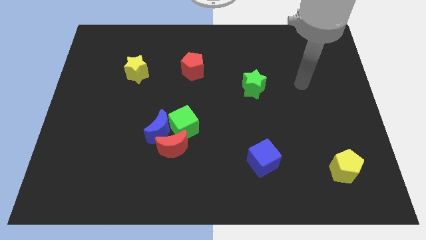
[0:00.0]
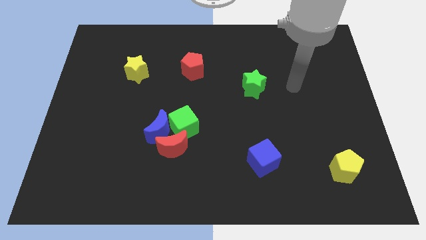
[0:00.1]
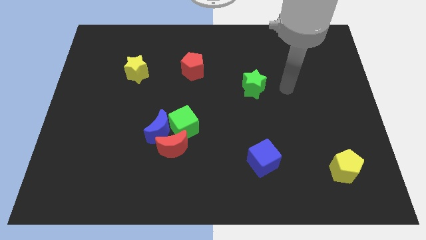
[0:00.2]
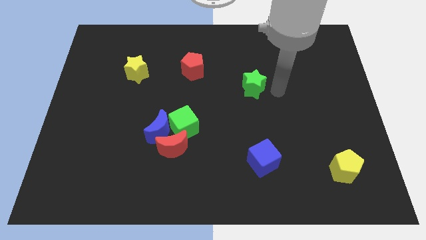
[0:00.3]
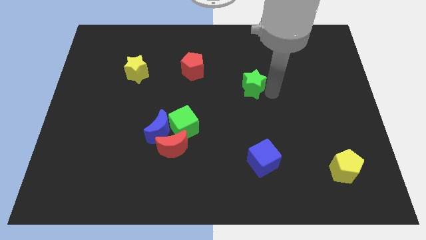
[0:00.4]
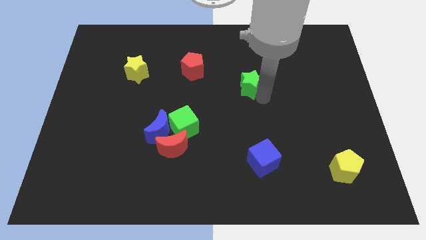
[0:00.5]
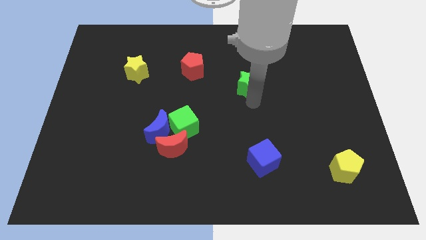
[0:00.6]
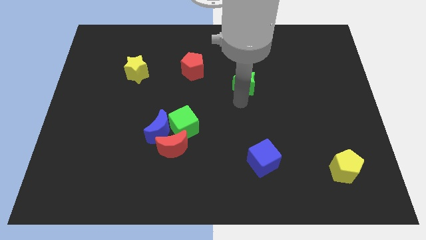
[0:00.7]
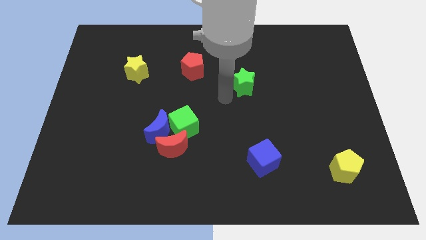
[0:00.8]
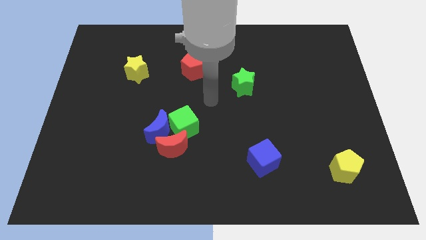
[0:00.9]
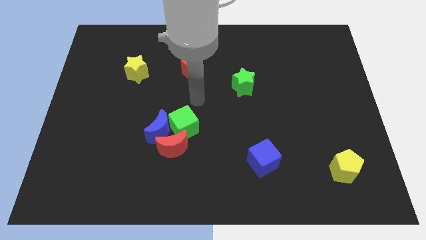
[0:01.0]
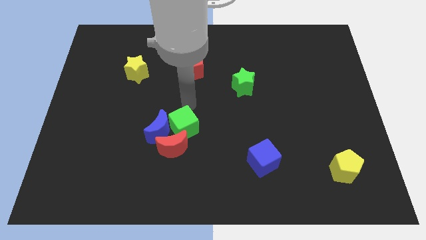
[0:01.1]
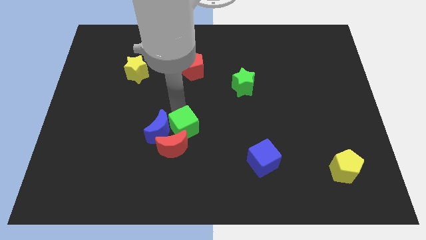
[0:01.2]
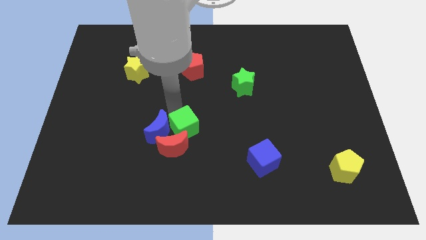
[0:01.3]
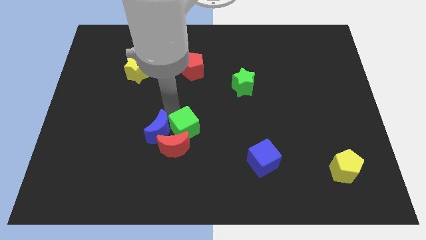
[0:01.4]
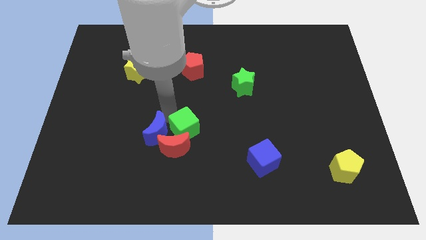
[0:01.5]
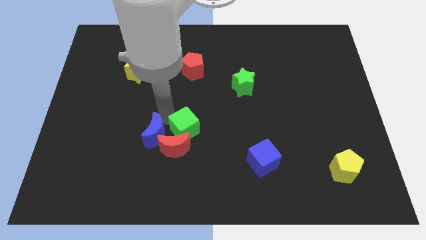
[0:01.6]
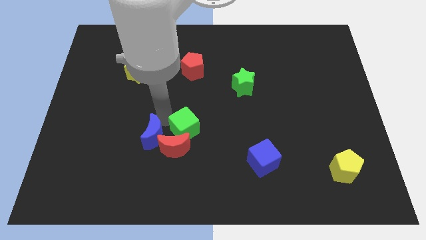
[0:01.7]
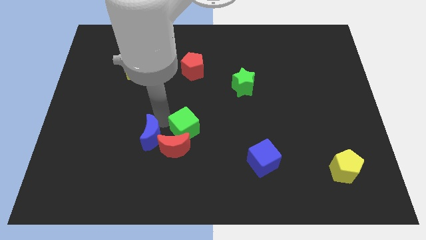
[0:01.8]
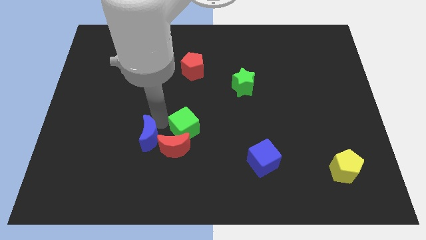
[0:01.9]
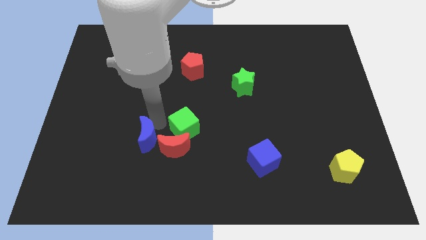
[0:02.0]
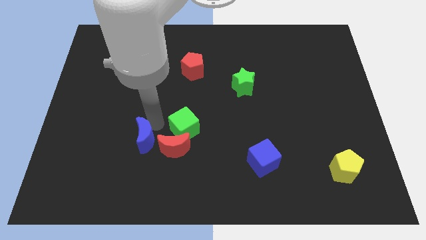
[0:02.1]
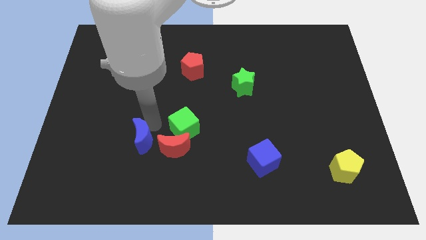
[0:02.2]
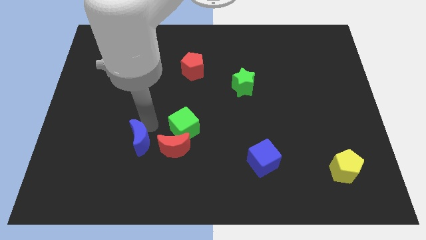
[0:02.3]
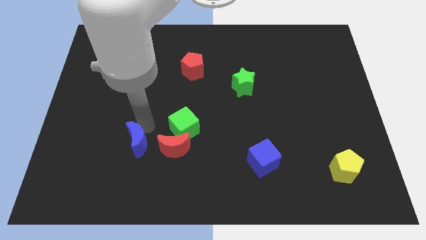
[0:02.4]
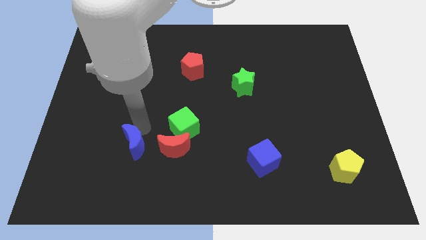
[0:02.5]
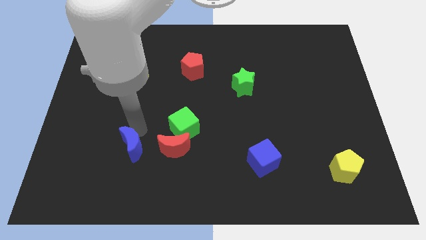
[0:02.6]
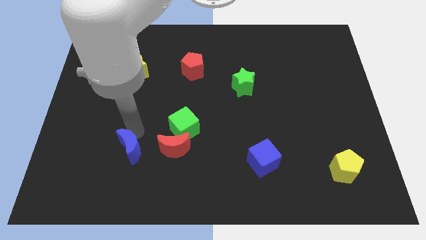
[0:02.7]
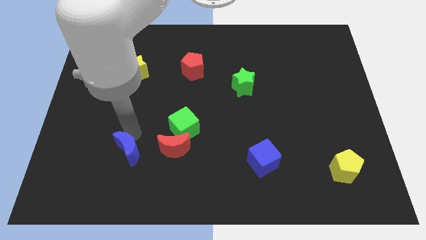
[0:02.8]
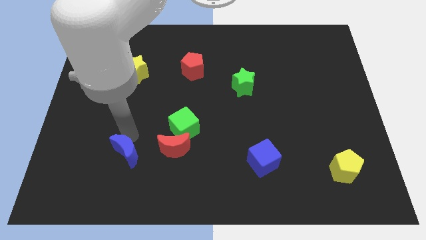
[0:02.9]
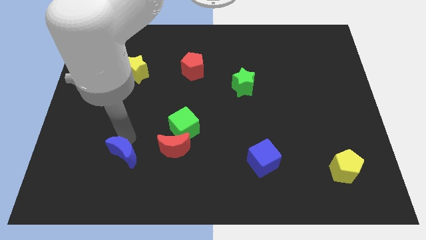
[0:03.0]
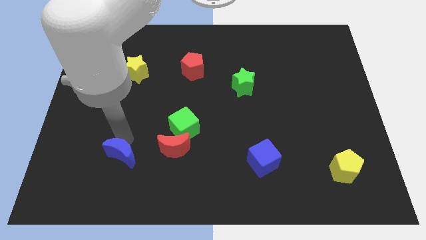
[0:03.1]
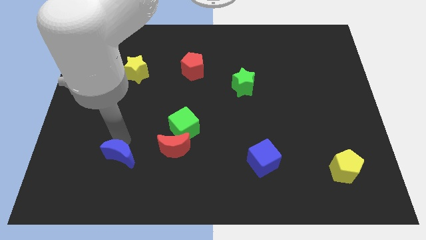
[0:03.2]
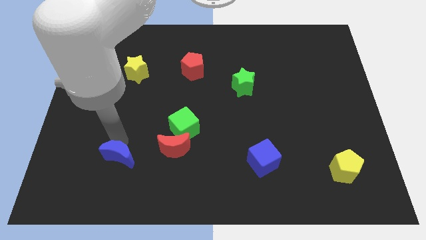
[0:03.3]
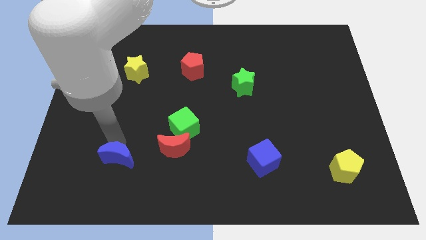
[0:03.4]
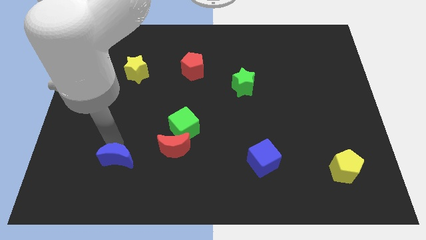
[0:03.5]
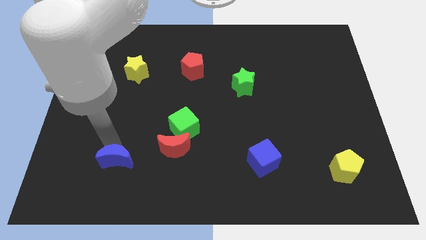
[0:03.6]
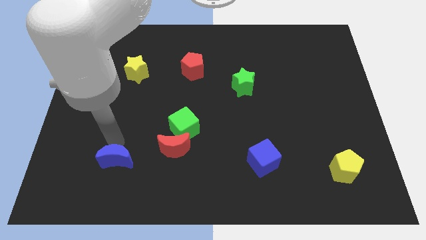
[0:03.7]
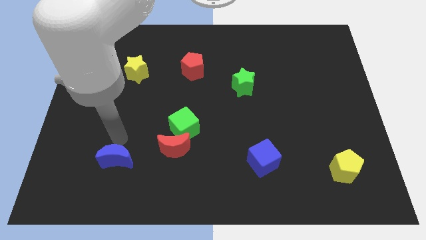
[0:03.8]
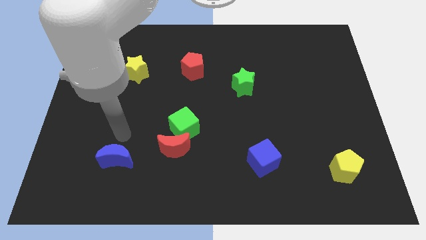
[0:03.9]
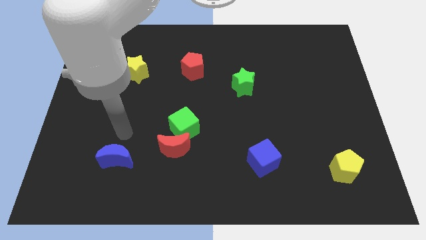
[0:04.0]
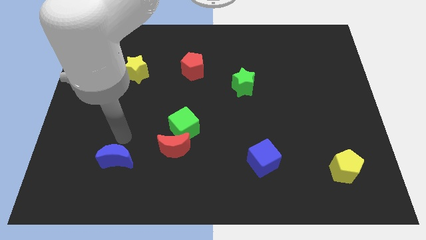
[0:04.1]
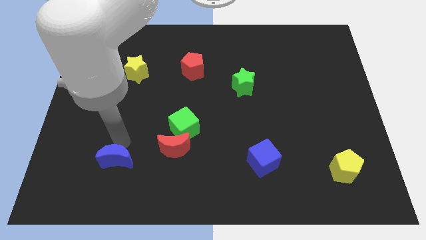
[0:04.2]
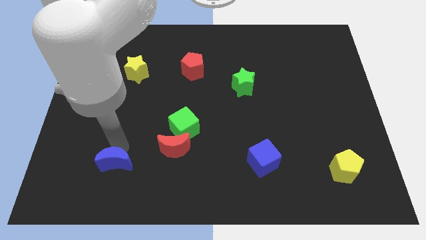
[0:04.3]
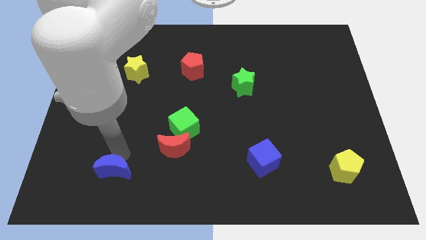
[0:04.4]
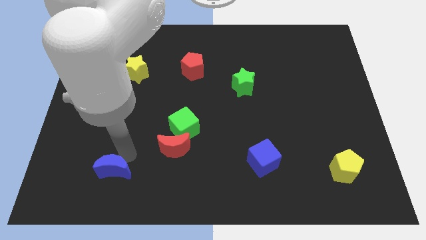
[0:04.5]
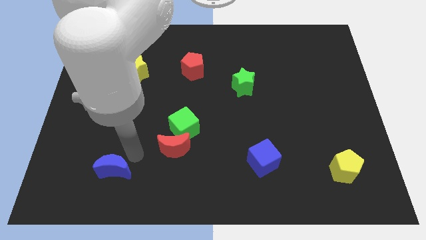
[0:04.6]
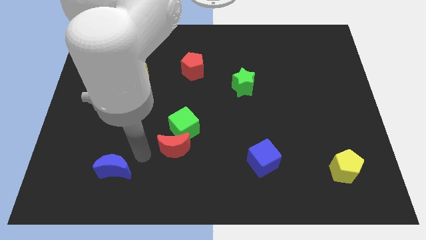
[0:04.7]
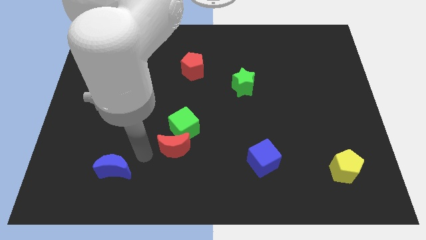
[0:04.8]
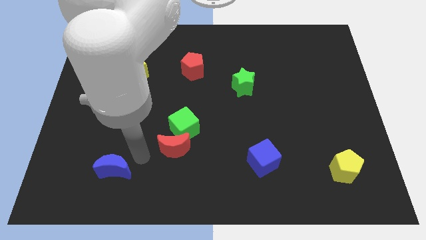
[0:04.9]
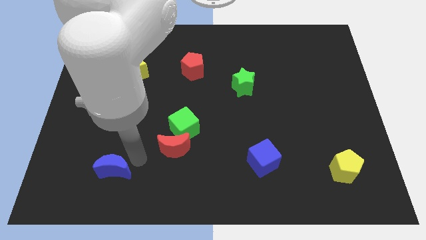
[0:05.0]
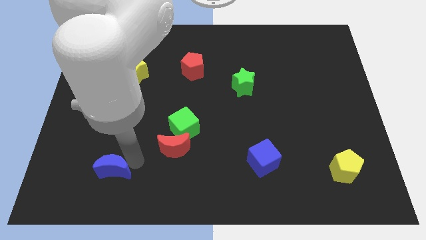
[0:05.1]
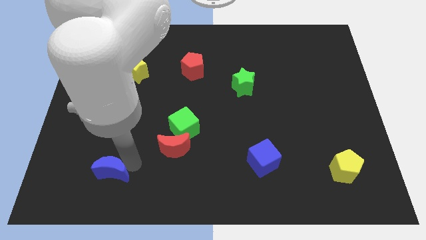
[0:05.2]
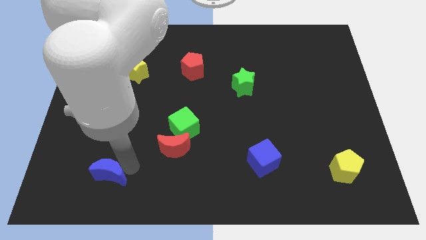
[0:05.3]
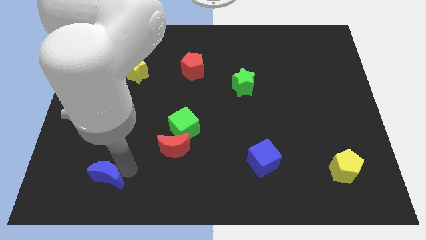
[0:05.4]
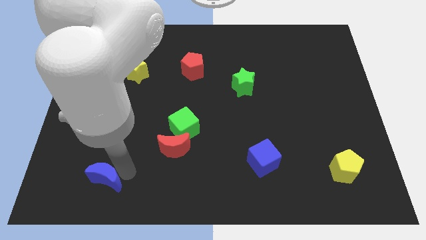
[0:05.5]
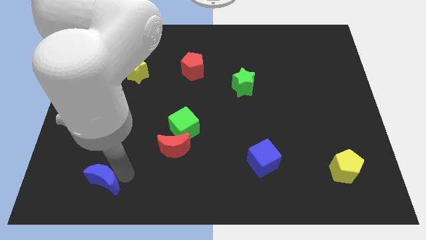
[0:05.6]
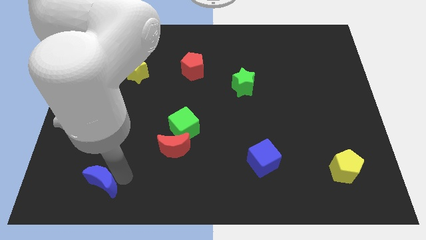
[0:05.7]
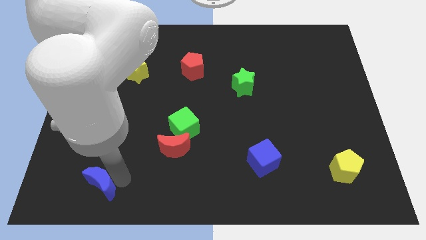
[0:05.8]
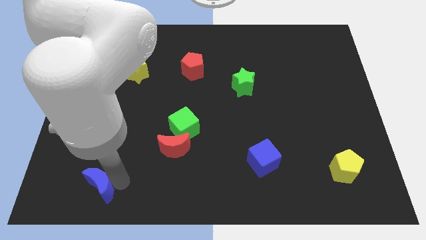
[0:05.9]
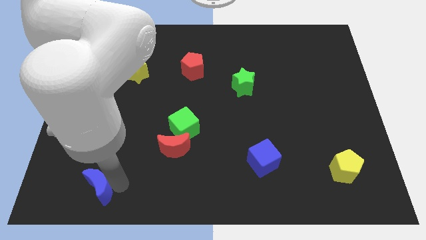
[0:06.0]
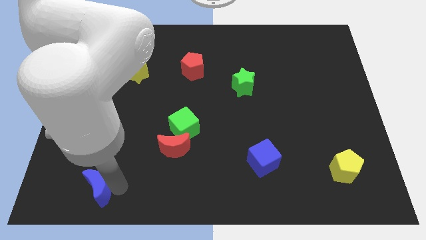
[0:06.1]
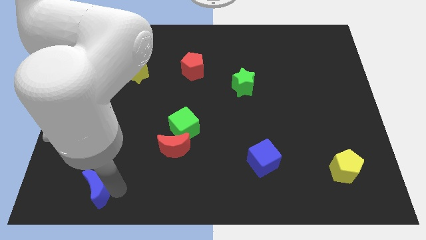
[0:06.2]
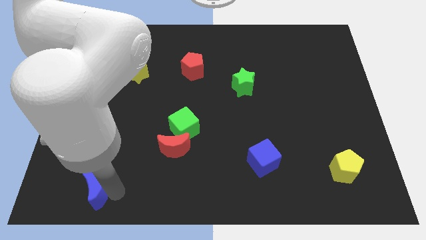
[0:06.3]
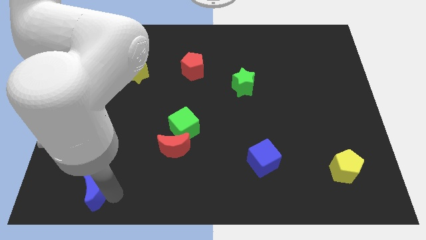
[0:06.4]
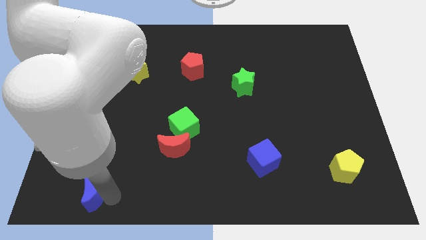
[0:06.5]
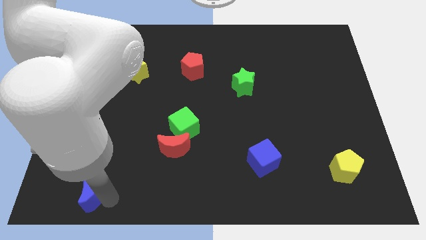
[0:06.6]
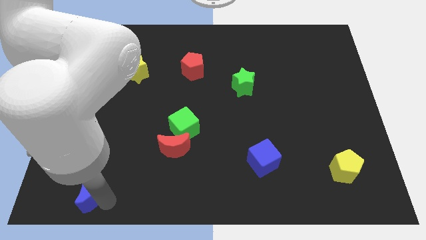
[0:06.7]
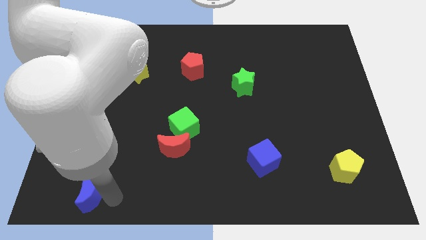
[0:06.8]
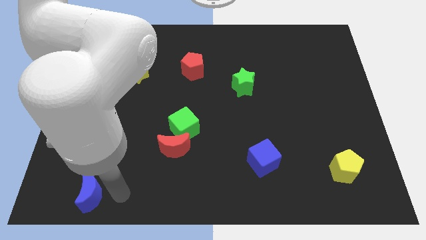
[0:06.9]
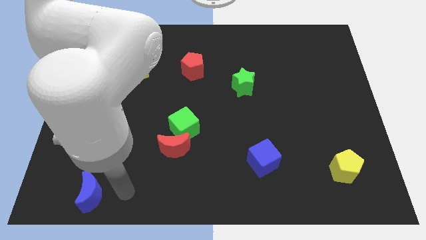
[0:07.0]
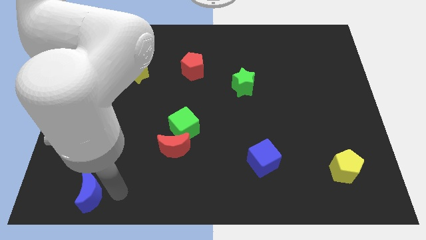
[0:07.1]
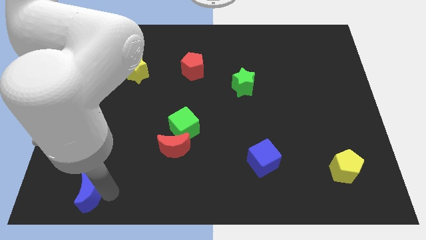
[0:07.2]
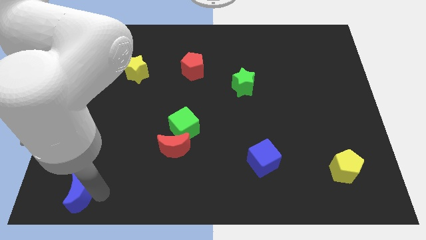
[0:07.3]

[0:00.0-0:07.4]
move the blue moon to the bottom left of the board
